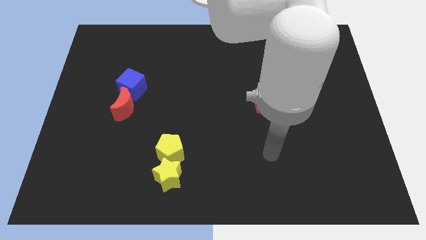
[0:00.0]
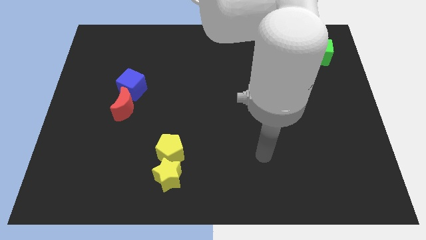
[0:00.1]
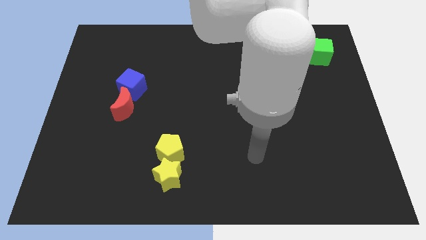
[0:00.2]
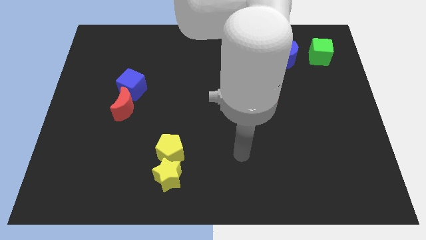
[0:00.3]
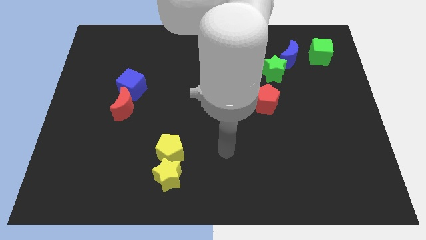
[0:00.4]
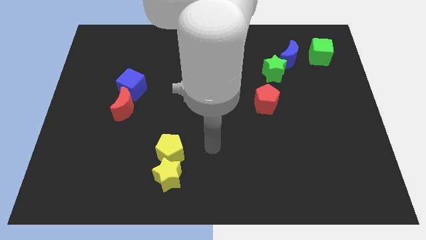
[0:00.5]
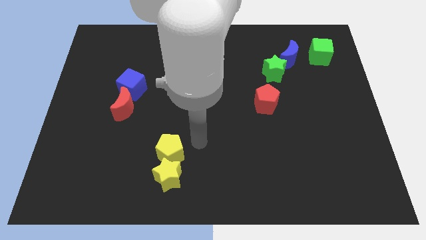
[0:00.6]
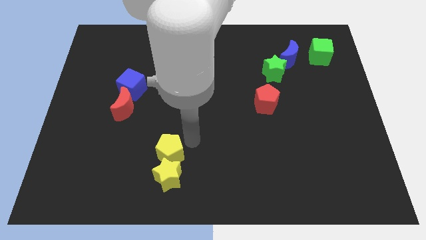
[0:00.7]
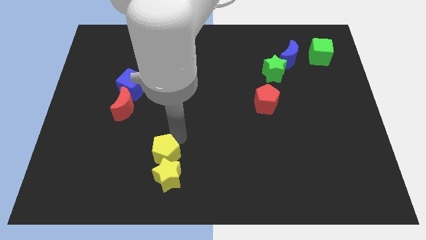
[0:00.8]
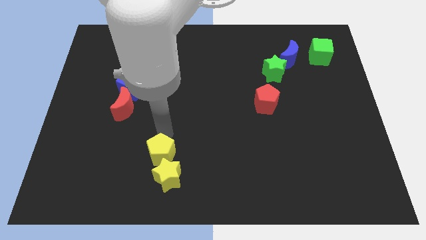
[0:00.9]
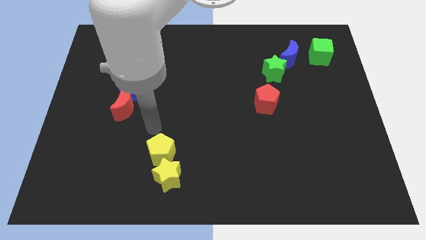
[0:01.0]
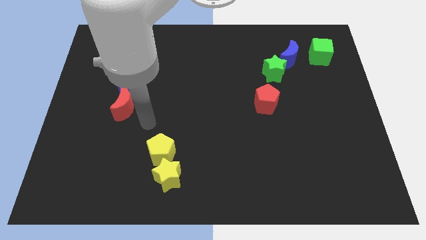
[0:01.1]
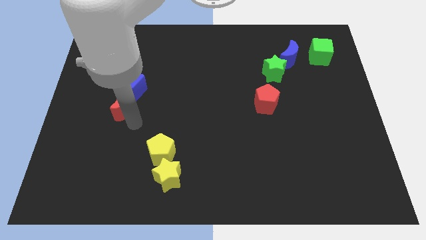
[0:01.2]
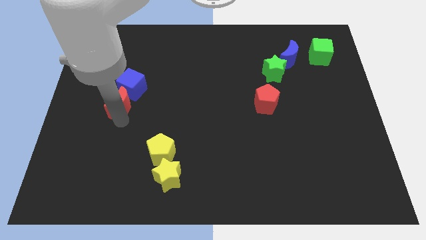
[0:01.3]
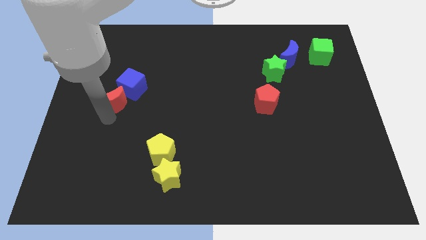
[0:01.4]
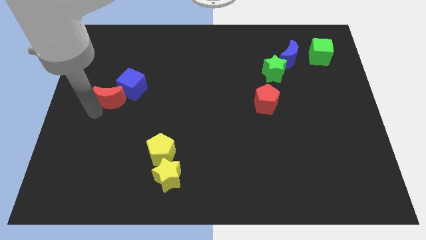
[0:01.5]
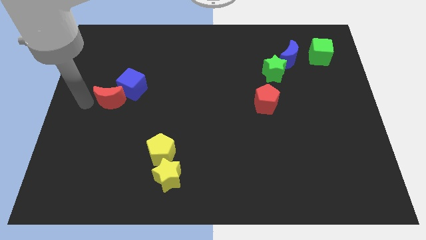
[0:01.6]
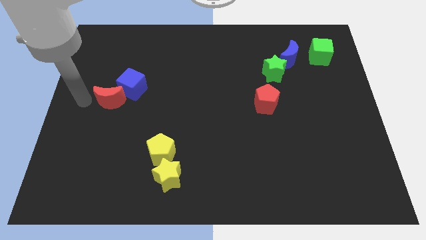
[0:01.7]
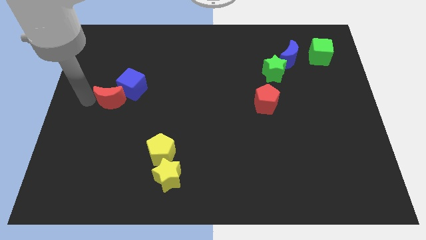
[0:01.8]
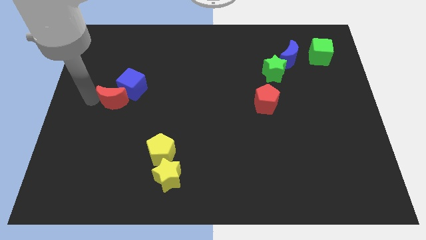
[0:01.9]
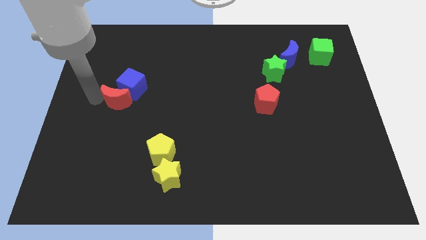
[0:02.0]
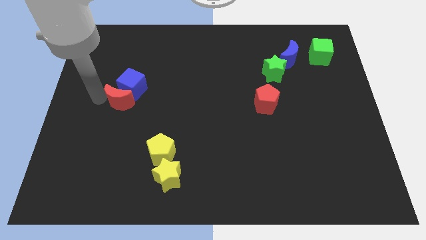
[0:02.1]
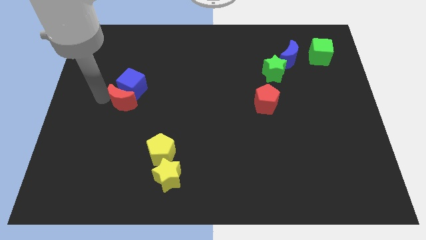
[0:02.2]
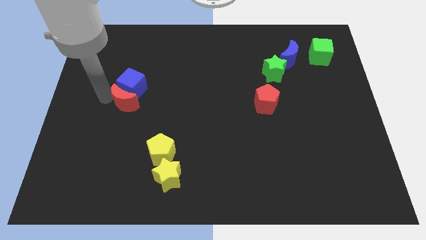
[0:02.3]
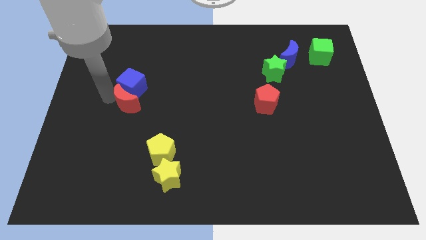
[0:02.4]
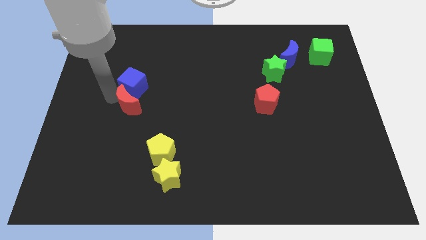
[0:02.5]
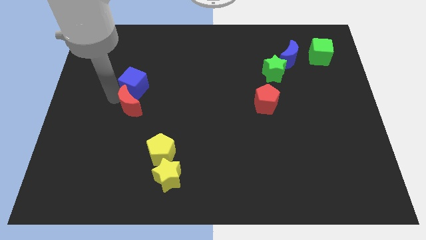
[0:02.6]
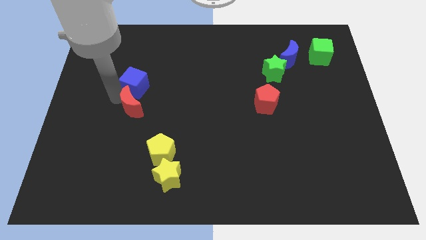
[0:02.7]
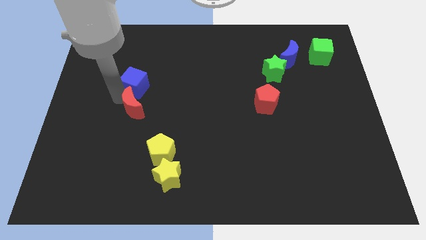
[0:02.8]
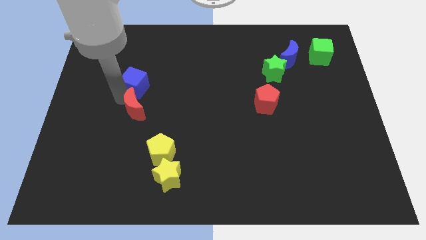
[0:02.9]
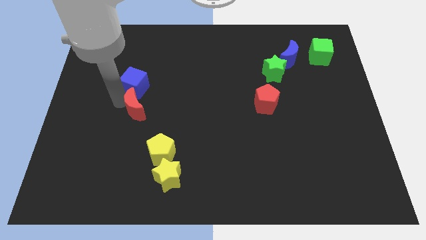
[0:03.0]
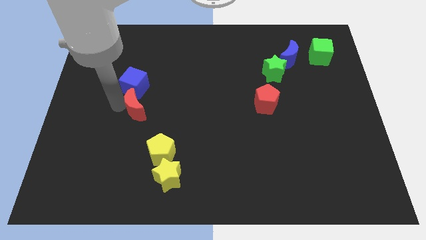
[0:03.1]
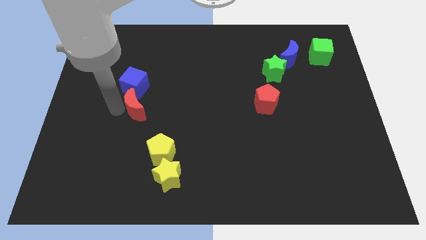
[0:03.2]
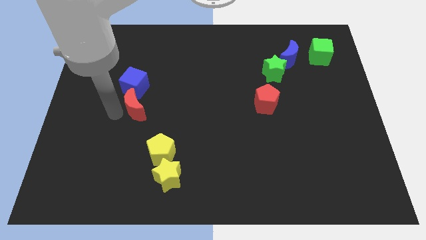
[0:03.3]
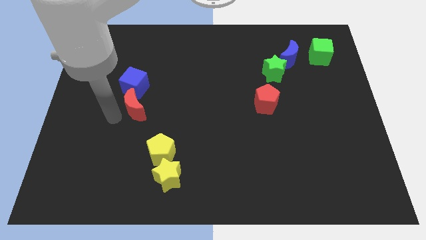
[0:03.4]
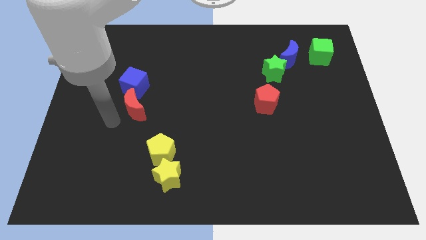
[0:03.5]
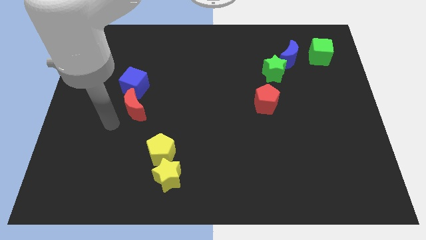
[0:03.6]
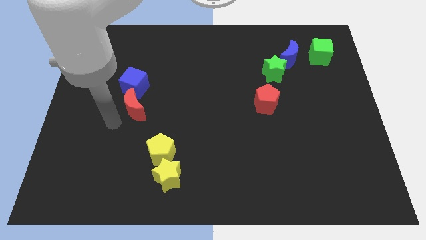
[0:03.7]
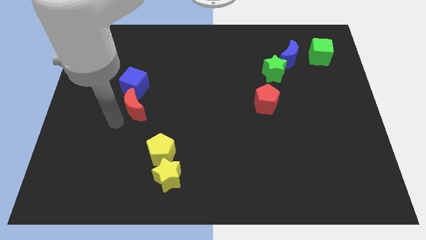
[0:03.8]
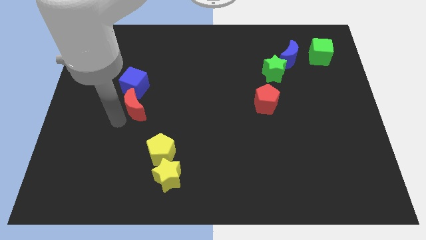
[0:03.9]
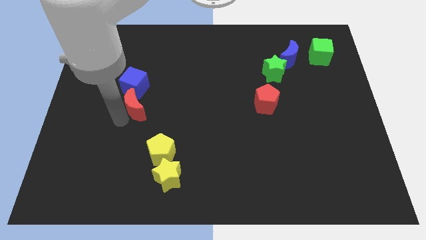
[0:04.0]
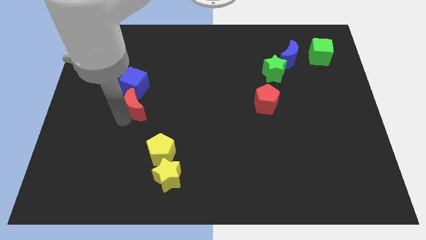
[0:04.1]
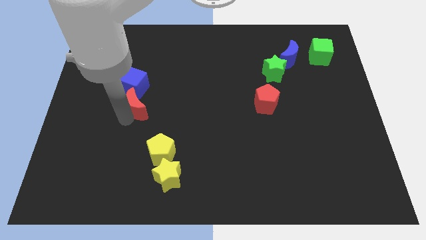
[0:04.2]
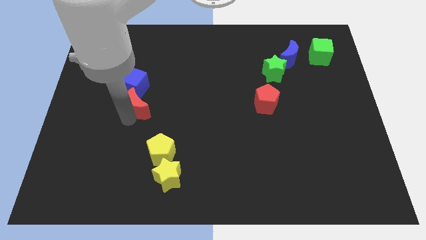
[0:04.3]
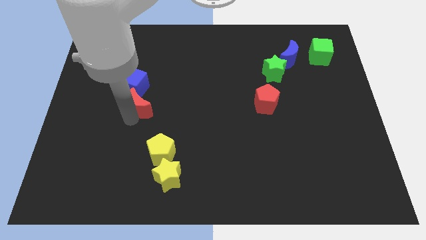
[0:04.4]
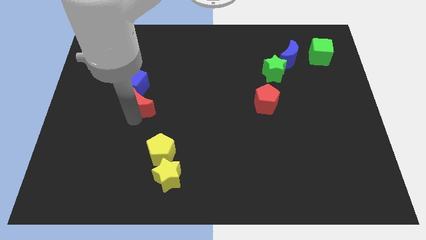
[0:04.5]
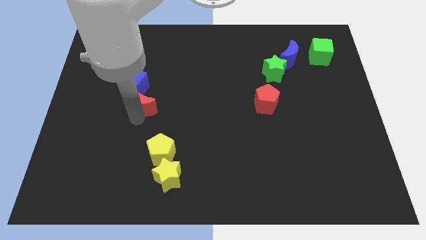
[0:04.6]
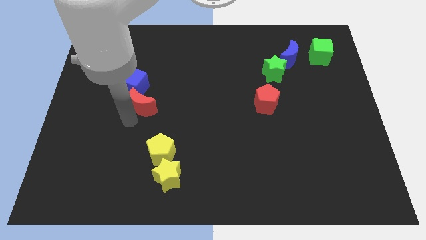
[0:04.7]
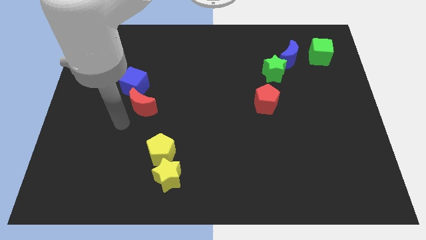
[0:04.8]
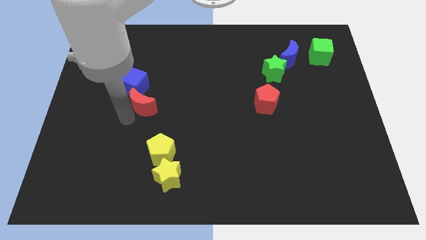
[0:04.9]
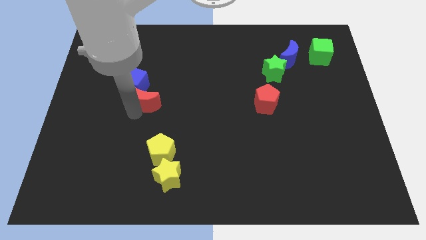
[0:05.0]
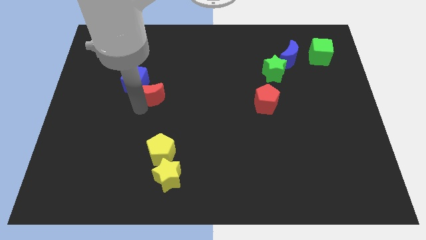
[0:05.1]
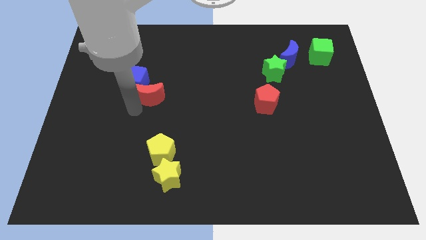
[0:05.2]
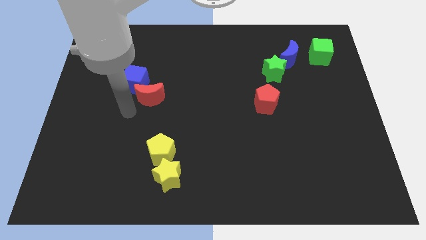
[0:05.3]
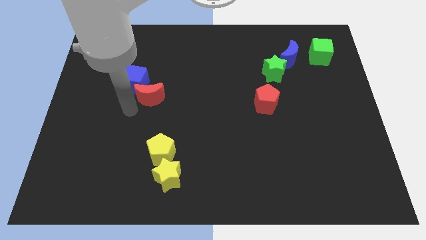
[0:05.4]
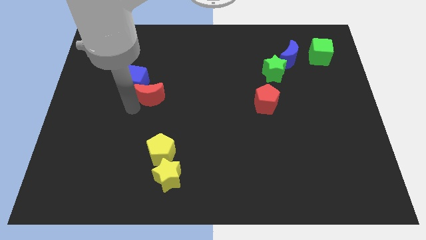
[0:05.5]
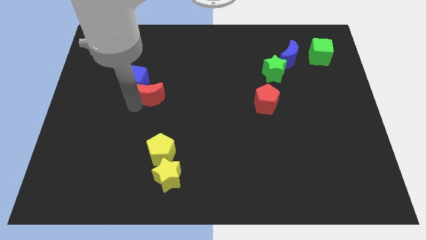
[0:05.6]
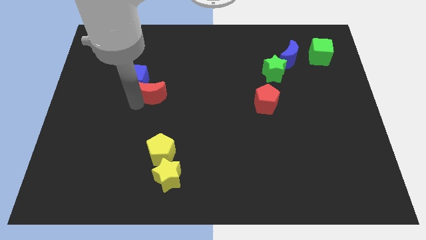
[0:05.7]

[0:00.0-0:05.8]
push the red moon slightly diagonally upwards and right

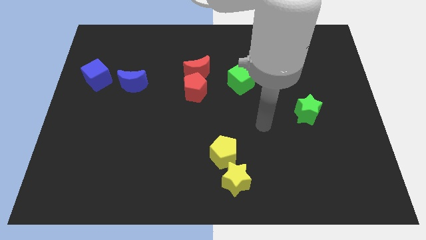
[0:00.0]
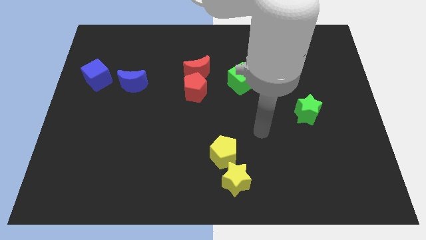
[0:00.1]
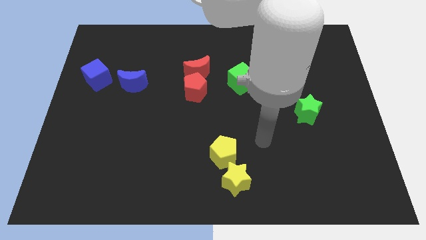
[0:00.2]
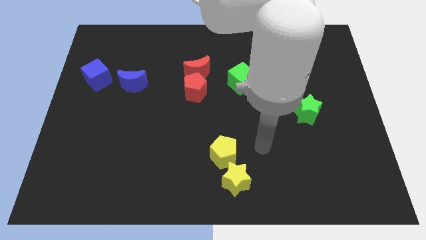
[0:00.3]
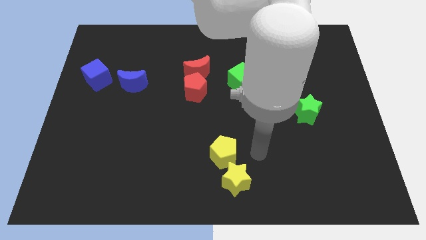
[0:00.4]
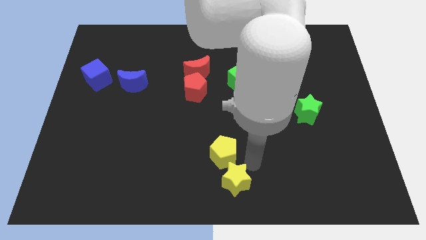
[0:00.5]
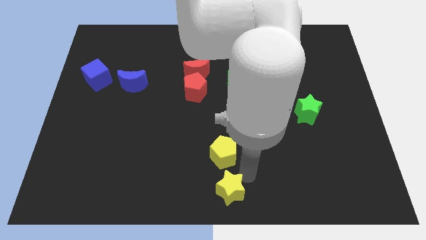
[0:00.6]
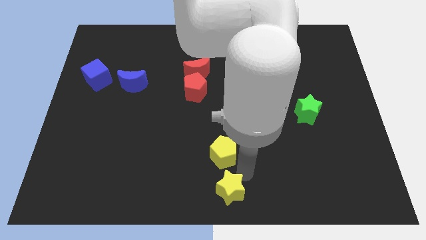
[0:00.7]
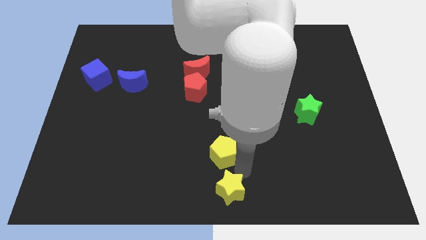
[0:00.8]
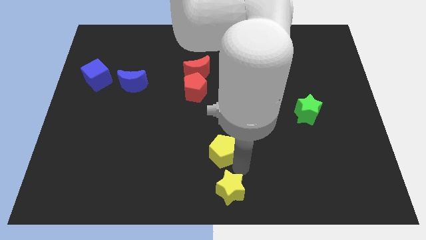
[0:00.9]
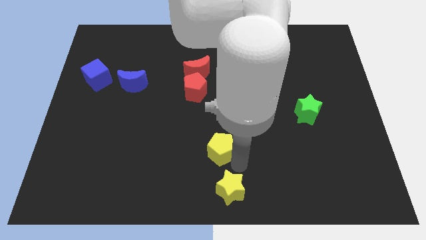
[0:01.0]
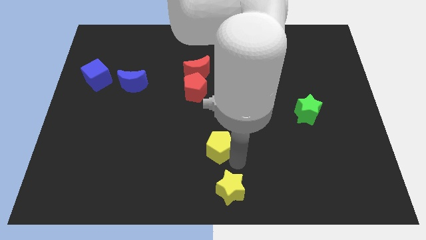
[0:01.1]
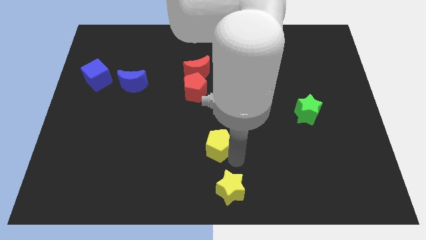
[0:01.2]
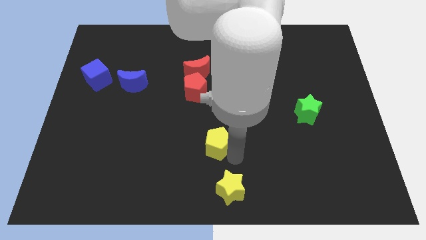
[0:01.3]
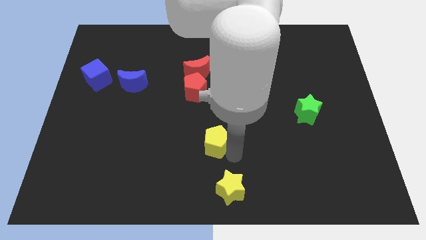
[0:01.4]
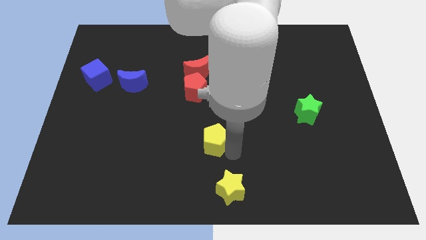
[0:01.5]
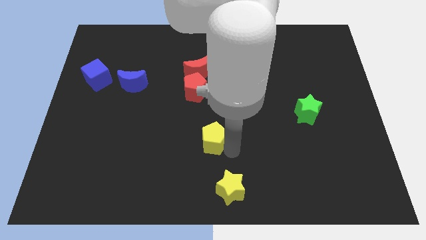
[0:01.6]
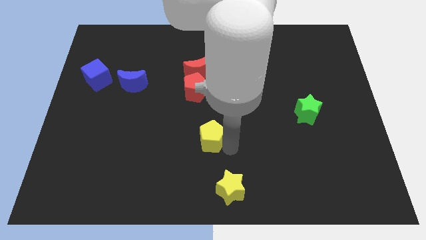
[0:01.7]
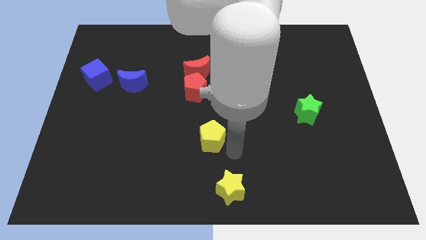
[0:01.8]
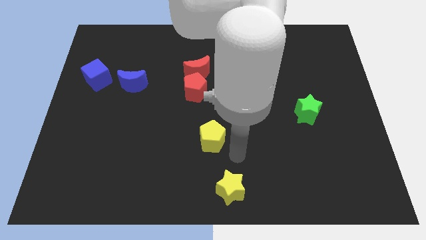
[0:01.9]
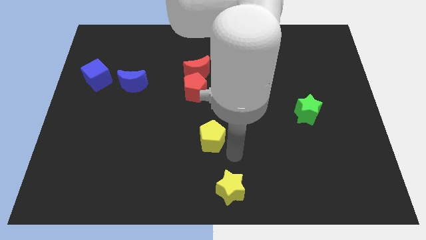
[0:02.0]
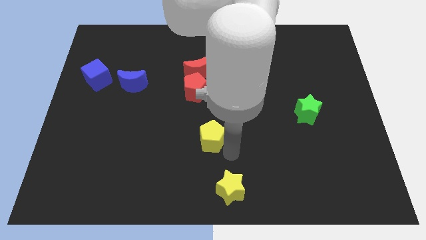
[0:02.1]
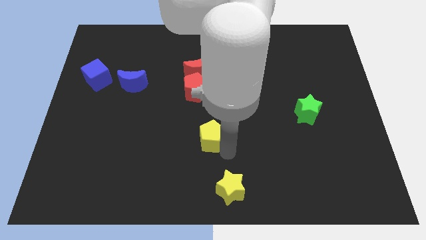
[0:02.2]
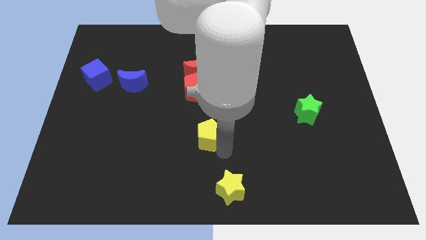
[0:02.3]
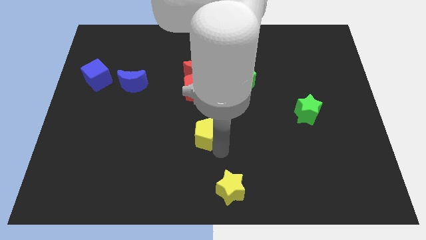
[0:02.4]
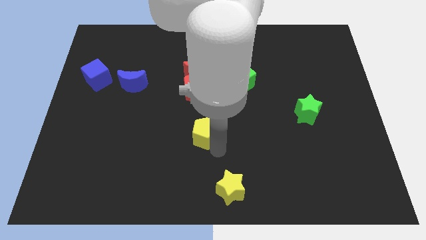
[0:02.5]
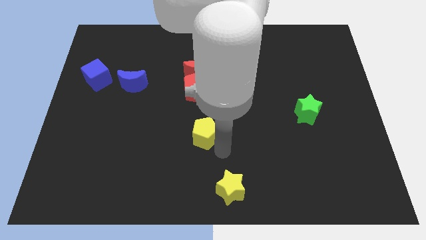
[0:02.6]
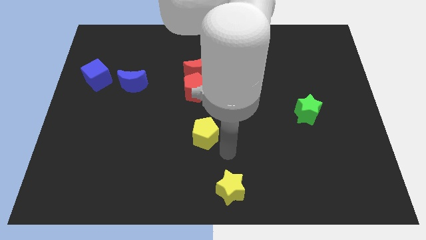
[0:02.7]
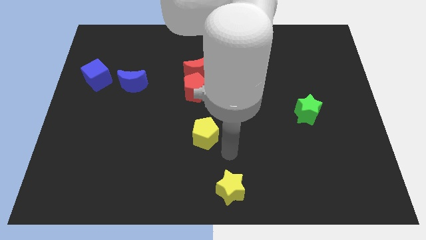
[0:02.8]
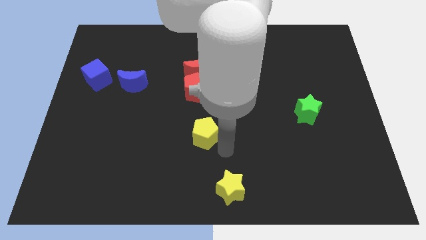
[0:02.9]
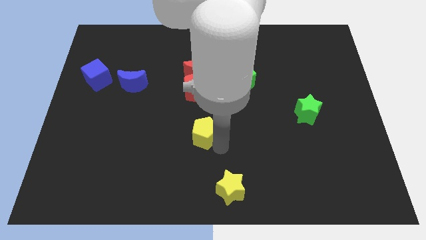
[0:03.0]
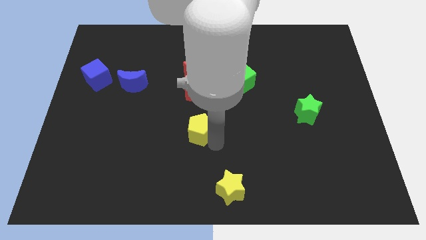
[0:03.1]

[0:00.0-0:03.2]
slightly move the yellow pentagon up and then left
